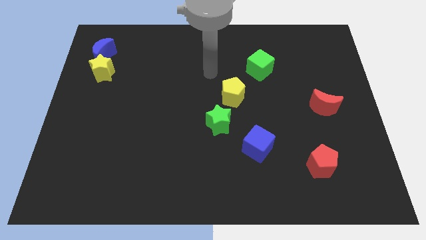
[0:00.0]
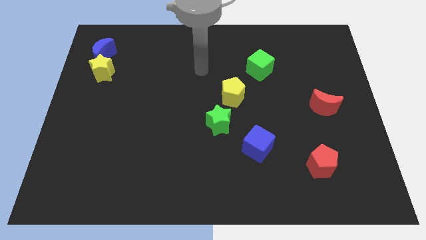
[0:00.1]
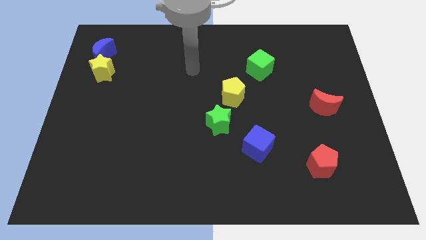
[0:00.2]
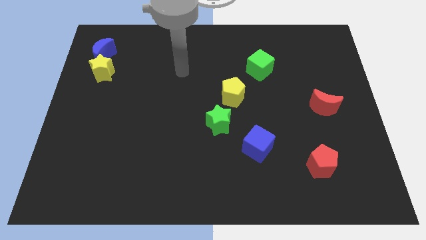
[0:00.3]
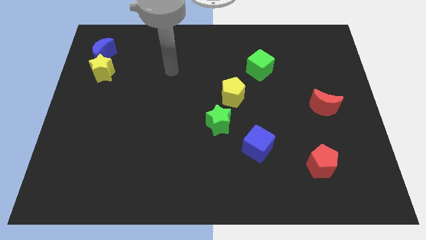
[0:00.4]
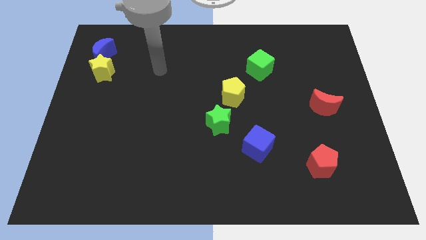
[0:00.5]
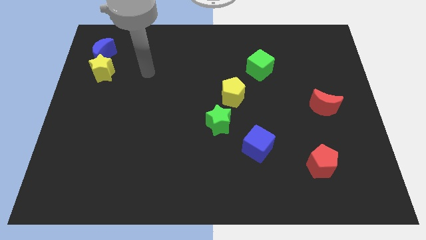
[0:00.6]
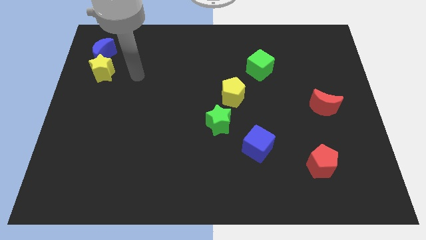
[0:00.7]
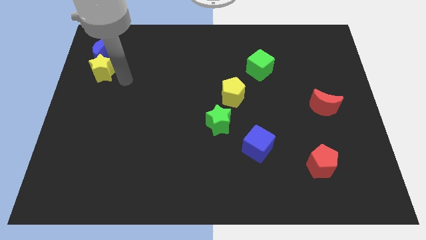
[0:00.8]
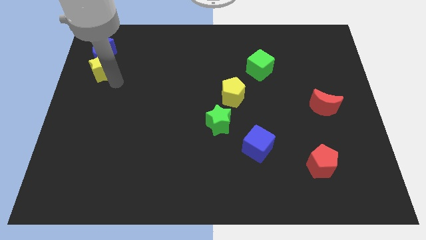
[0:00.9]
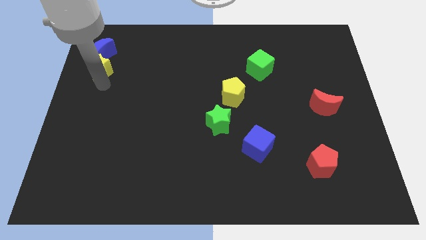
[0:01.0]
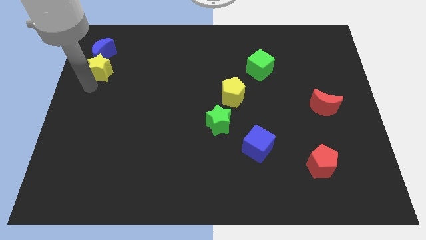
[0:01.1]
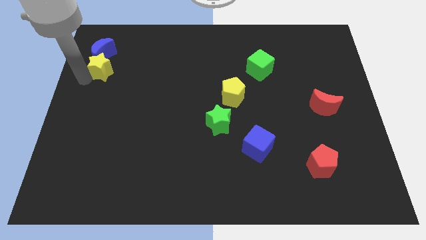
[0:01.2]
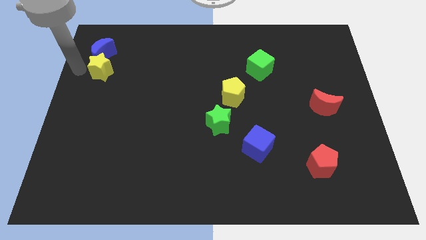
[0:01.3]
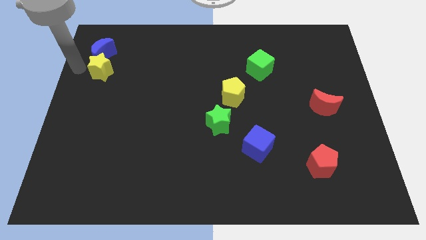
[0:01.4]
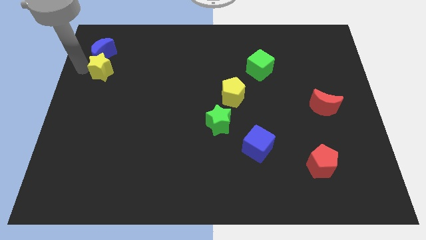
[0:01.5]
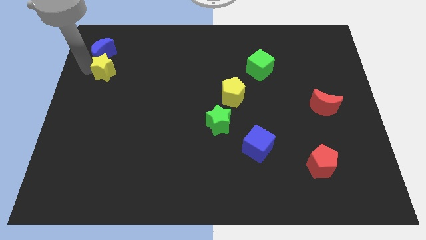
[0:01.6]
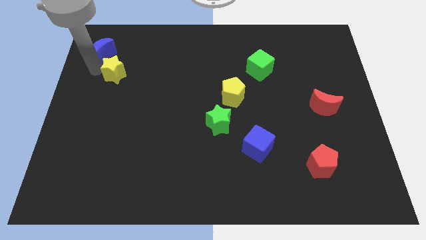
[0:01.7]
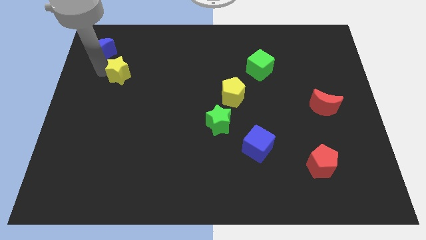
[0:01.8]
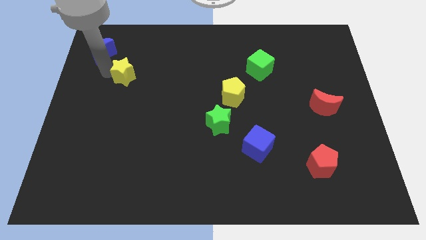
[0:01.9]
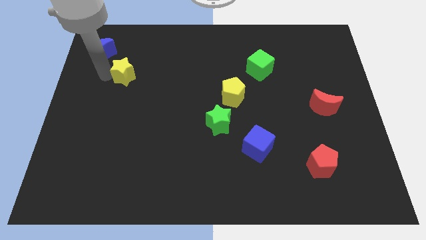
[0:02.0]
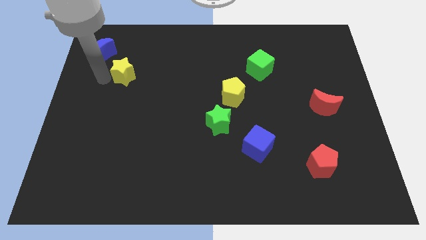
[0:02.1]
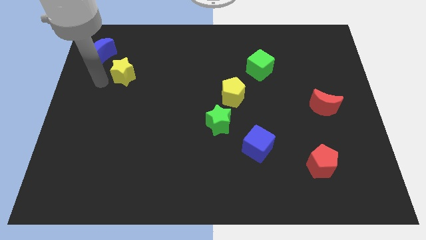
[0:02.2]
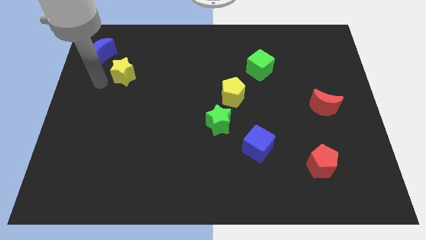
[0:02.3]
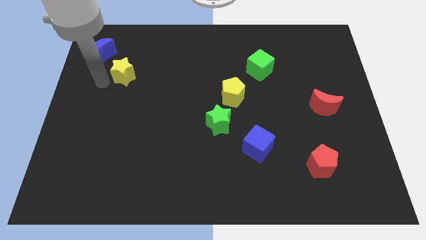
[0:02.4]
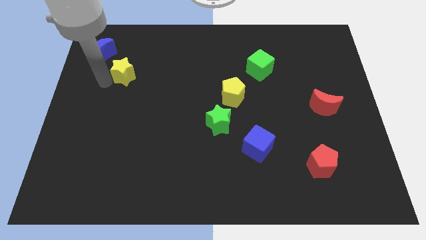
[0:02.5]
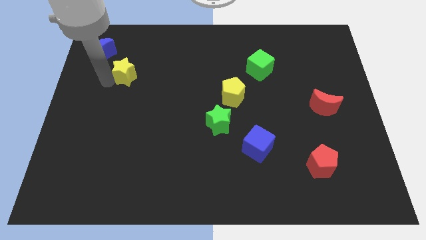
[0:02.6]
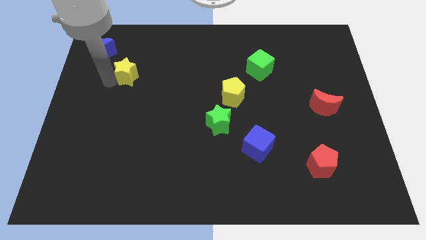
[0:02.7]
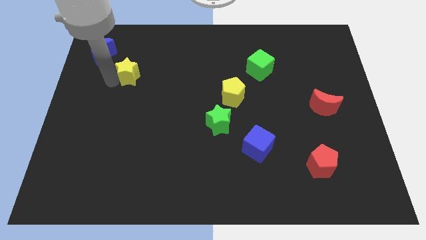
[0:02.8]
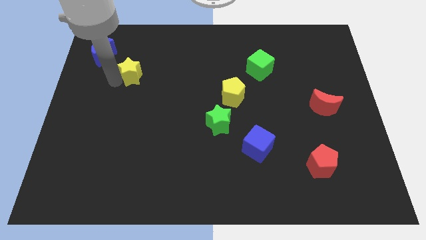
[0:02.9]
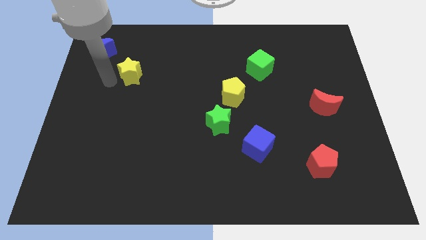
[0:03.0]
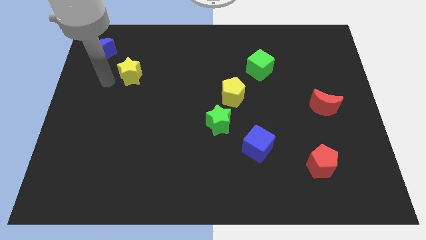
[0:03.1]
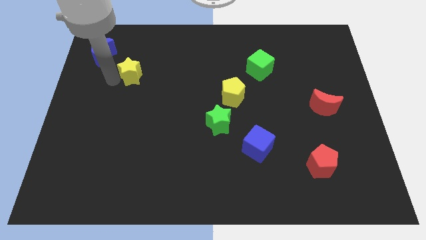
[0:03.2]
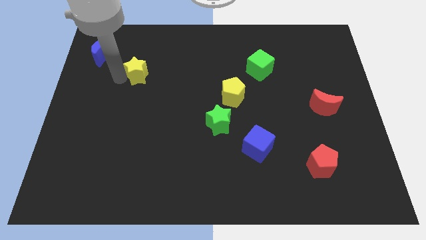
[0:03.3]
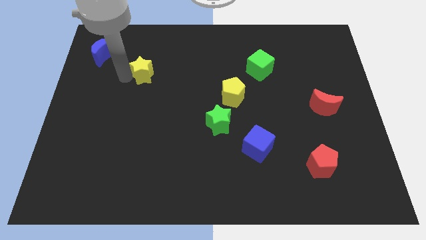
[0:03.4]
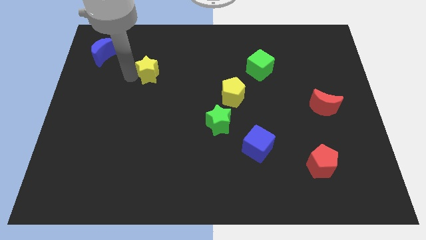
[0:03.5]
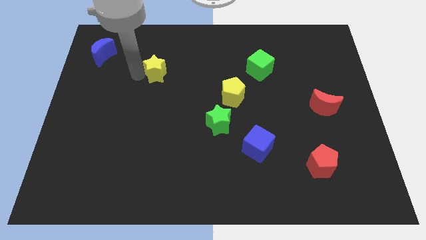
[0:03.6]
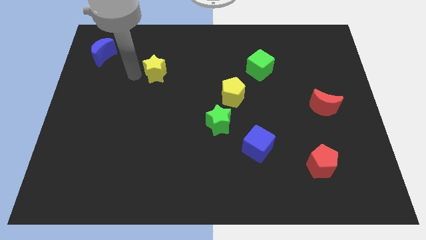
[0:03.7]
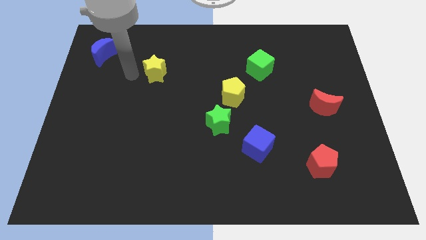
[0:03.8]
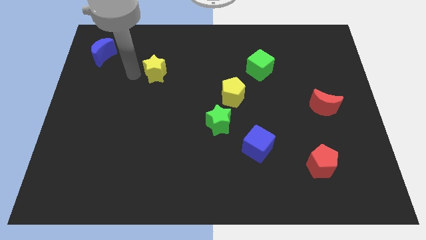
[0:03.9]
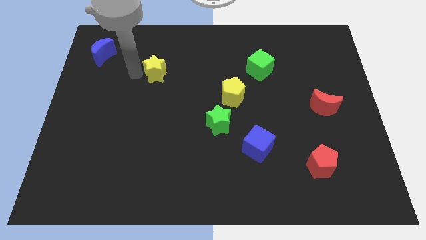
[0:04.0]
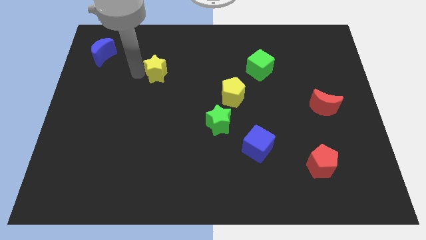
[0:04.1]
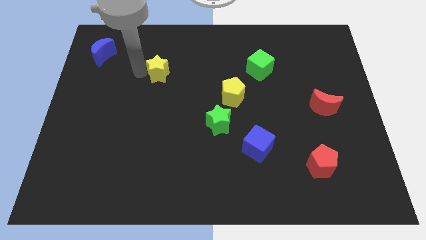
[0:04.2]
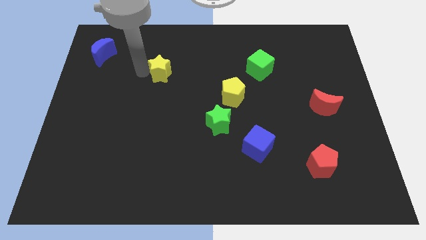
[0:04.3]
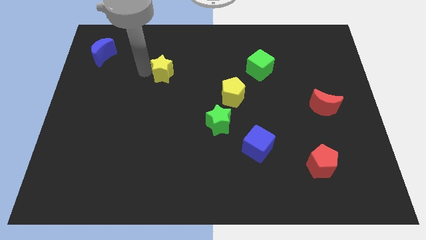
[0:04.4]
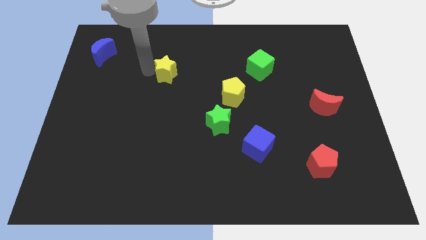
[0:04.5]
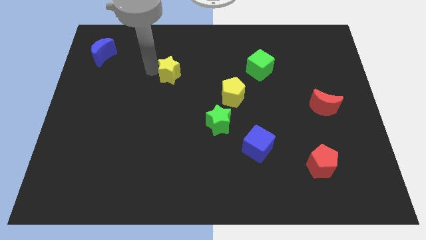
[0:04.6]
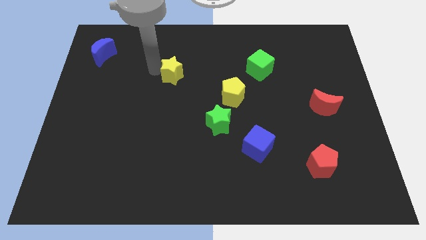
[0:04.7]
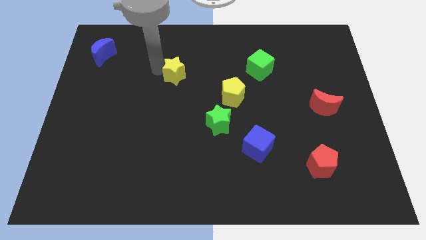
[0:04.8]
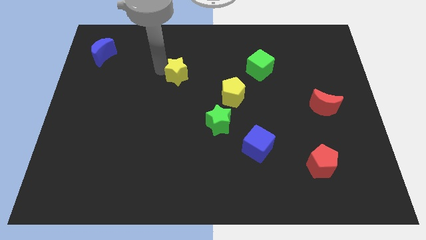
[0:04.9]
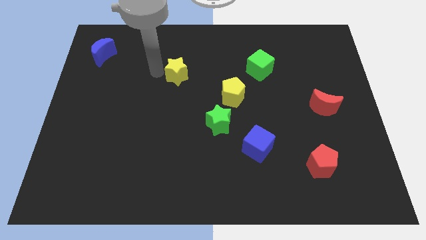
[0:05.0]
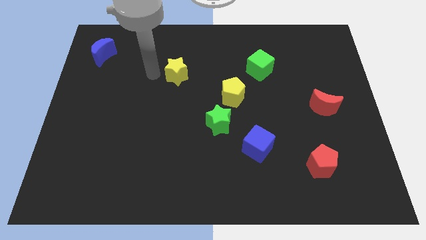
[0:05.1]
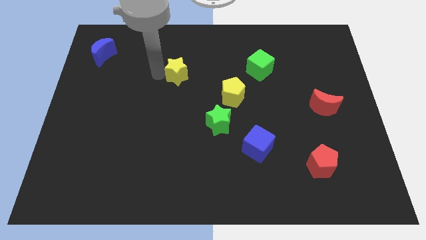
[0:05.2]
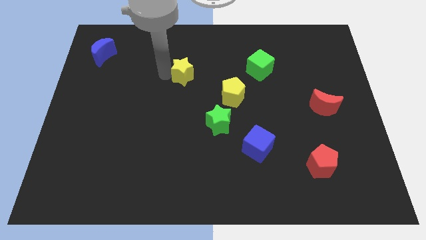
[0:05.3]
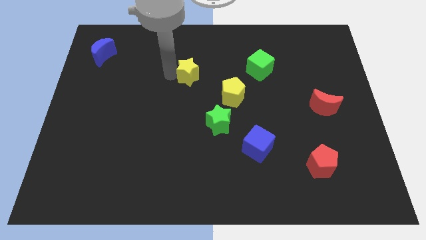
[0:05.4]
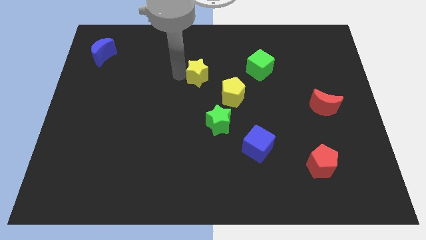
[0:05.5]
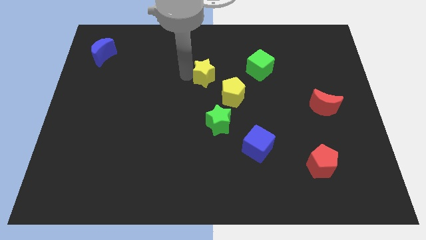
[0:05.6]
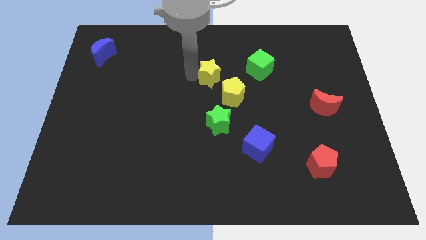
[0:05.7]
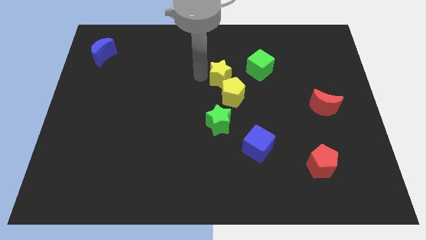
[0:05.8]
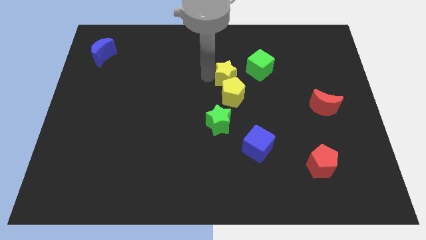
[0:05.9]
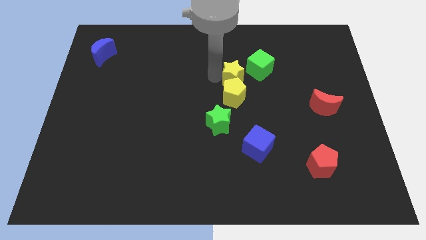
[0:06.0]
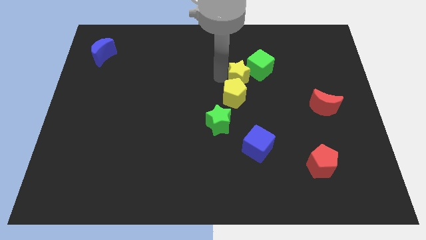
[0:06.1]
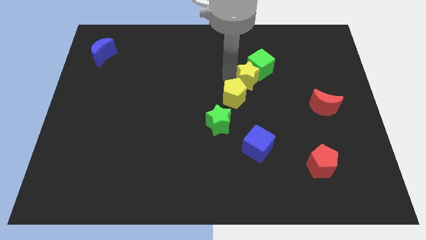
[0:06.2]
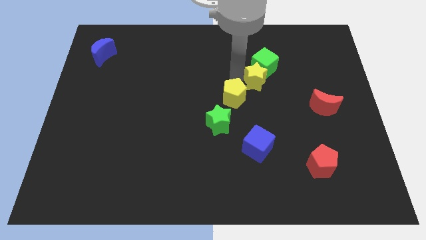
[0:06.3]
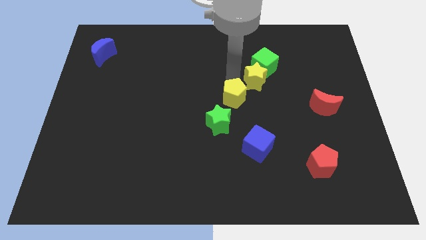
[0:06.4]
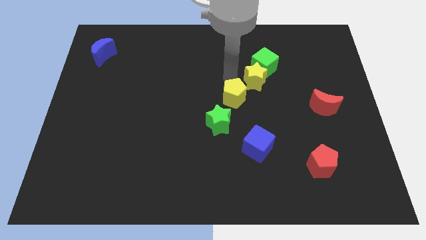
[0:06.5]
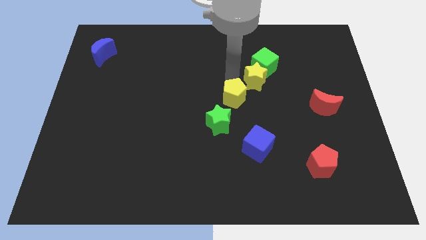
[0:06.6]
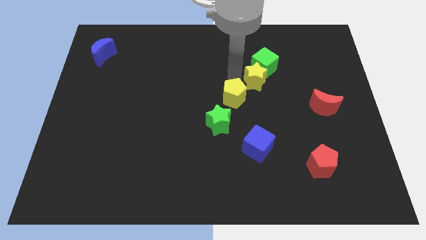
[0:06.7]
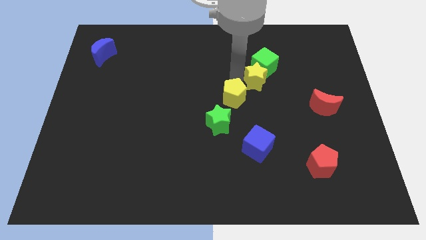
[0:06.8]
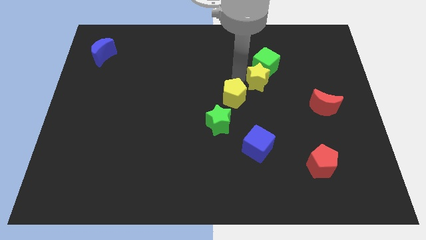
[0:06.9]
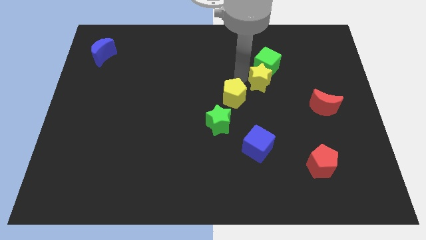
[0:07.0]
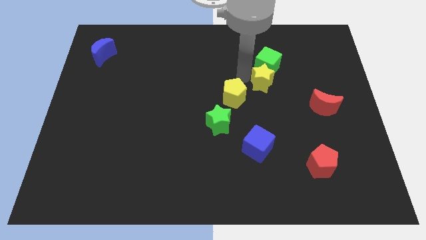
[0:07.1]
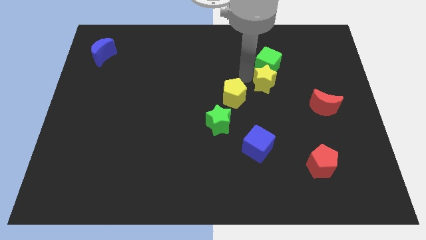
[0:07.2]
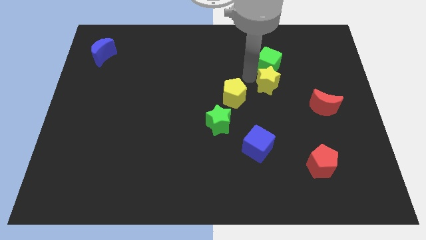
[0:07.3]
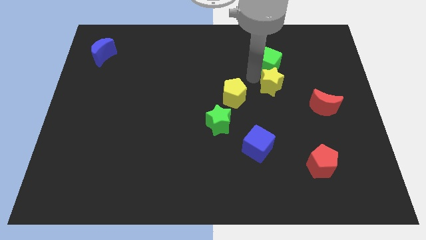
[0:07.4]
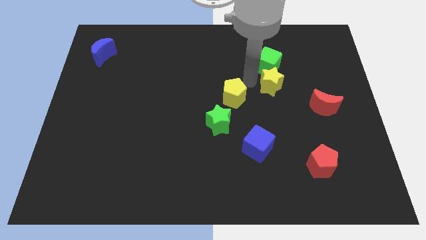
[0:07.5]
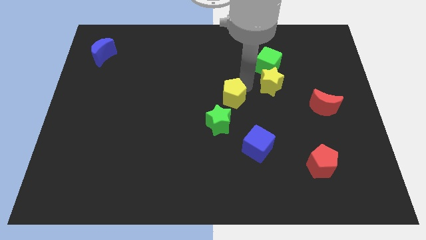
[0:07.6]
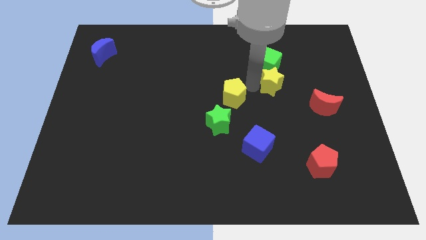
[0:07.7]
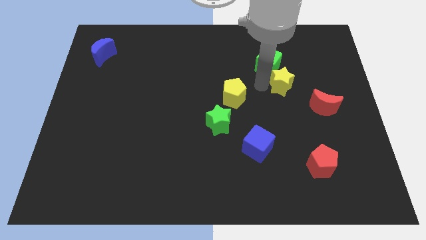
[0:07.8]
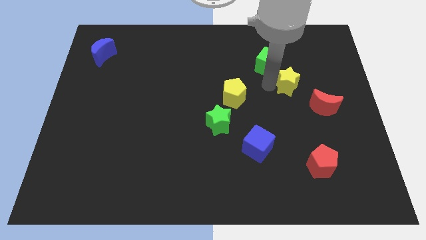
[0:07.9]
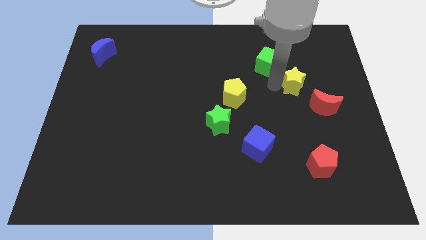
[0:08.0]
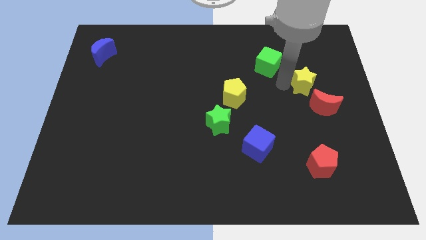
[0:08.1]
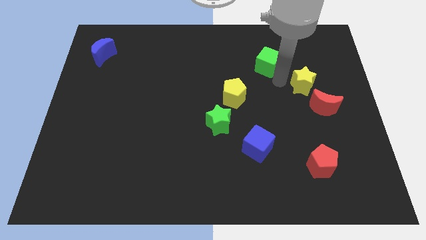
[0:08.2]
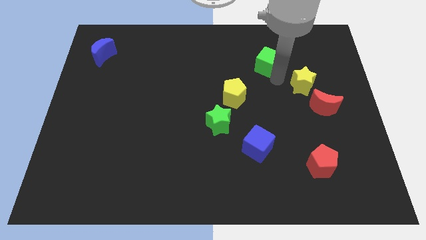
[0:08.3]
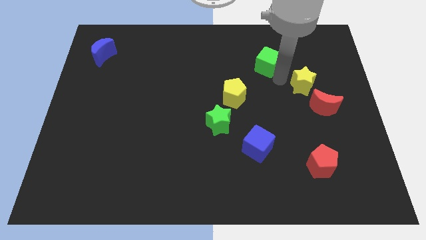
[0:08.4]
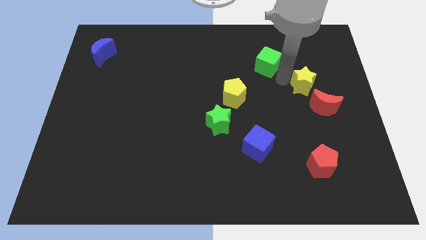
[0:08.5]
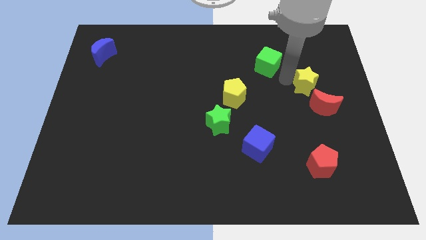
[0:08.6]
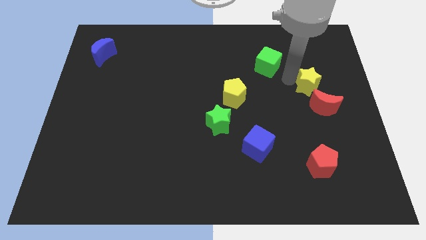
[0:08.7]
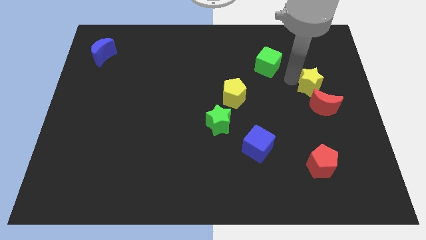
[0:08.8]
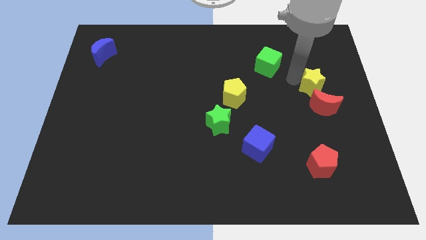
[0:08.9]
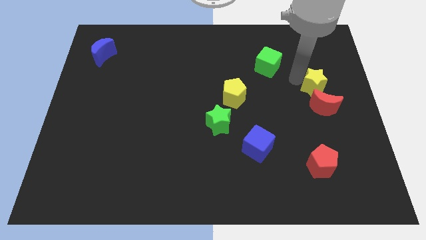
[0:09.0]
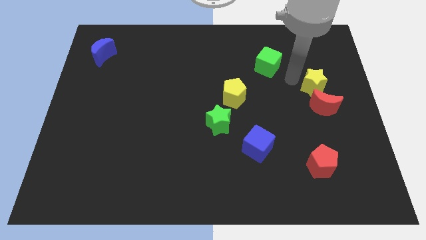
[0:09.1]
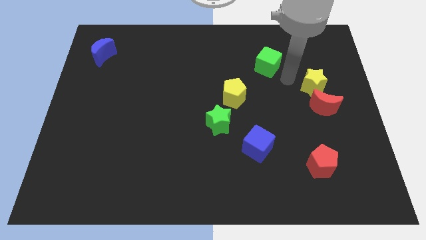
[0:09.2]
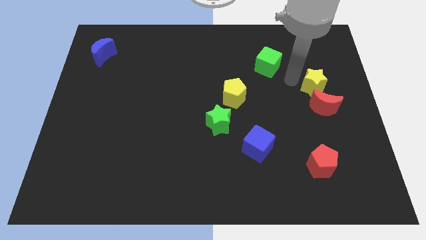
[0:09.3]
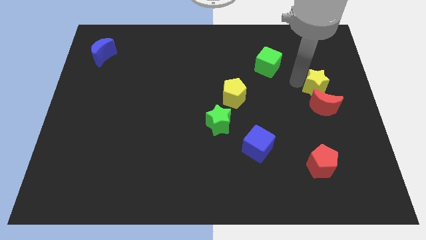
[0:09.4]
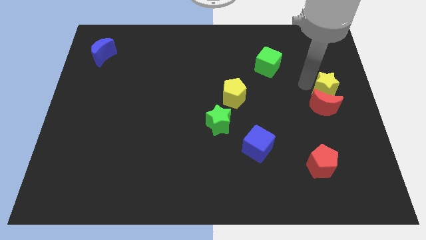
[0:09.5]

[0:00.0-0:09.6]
push the yellow star to the right side
